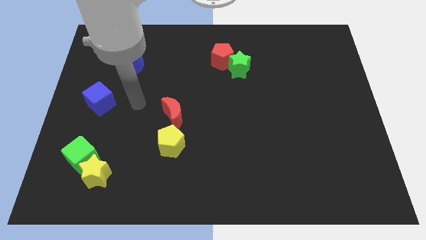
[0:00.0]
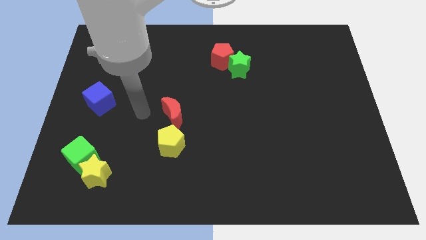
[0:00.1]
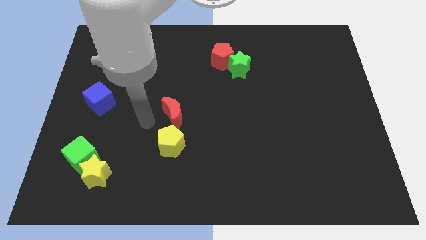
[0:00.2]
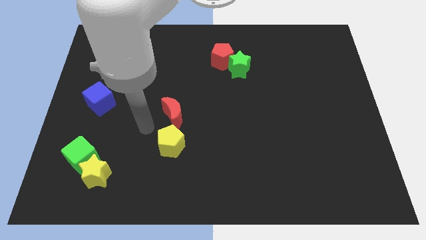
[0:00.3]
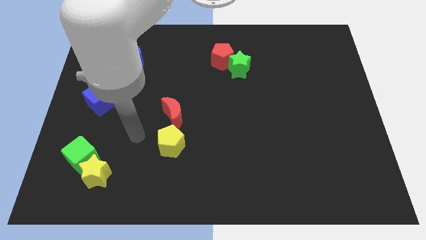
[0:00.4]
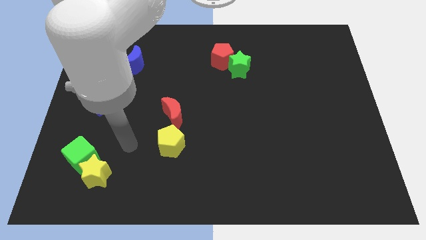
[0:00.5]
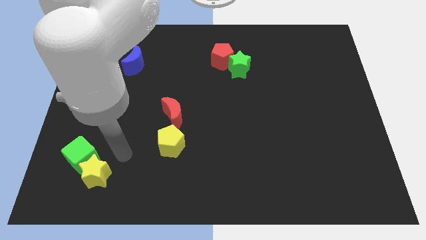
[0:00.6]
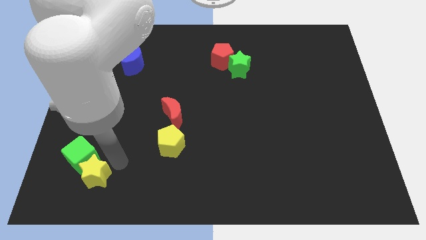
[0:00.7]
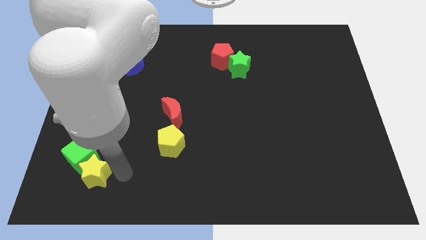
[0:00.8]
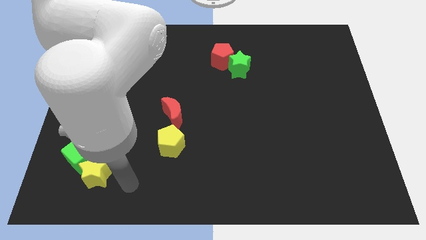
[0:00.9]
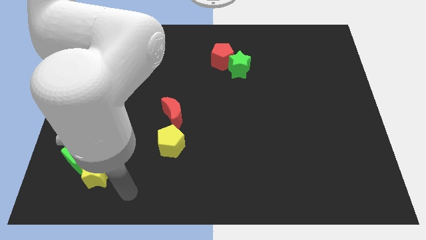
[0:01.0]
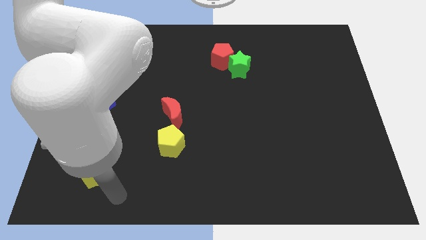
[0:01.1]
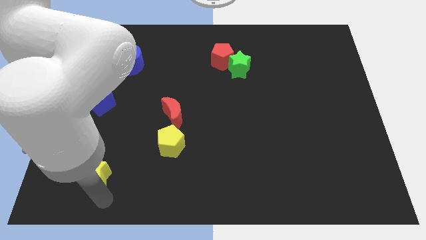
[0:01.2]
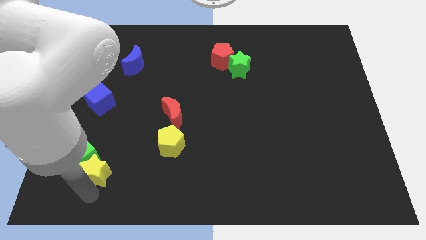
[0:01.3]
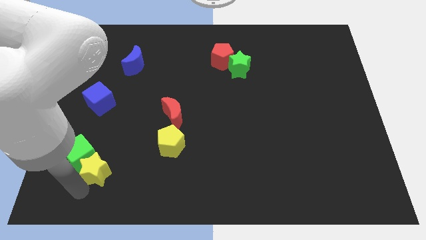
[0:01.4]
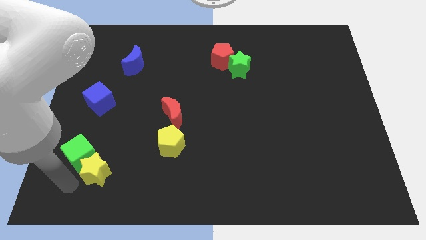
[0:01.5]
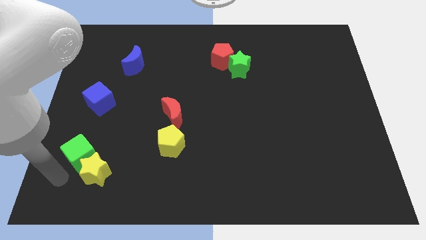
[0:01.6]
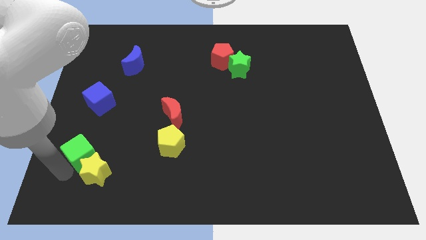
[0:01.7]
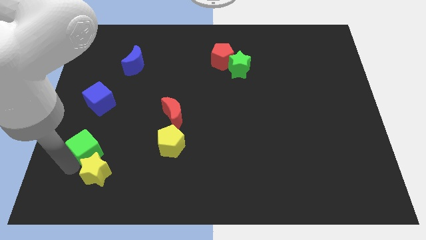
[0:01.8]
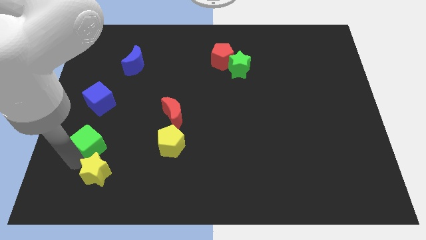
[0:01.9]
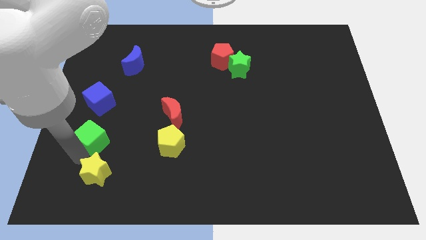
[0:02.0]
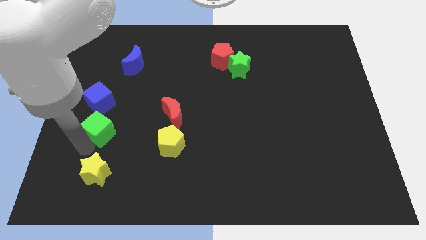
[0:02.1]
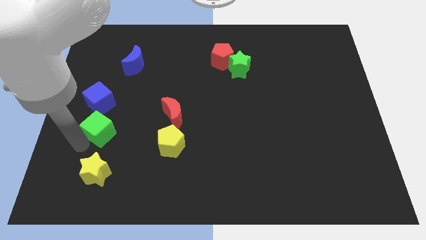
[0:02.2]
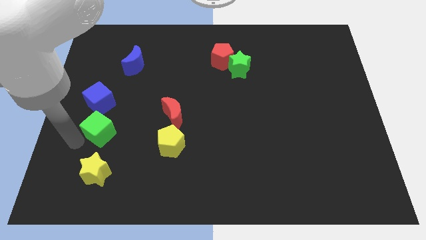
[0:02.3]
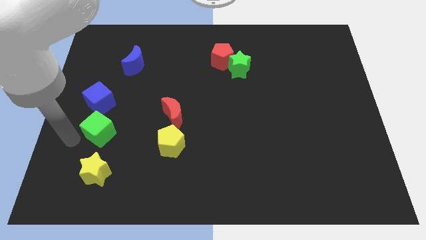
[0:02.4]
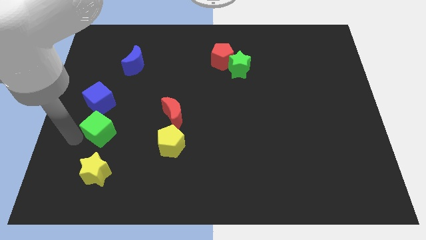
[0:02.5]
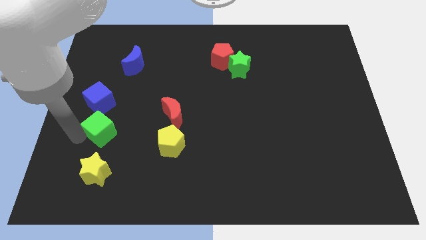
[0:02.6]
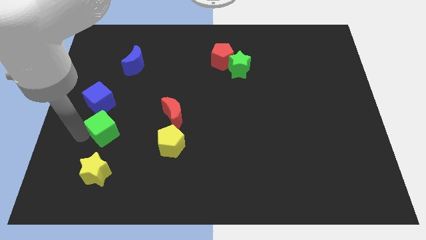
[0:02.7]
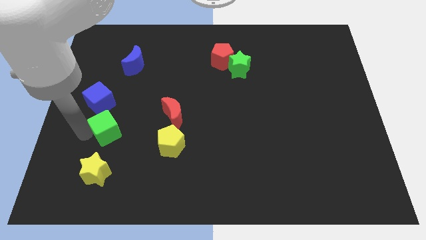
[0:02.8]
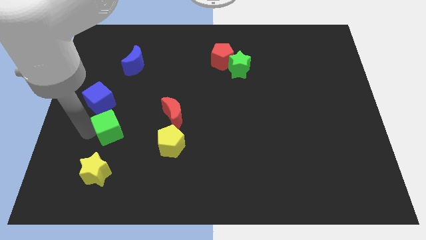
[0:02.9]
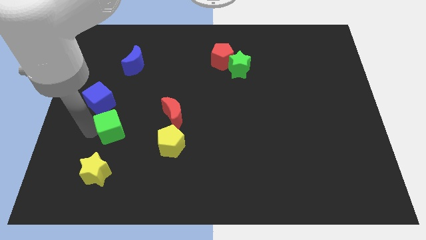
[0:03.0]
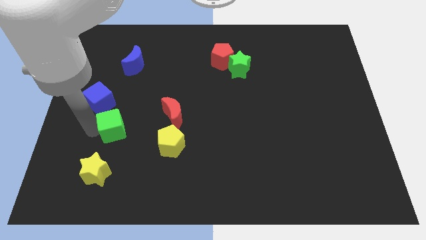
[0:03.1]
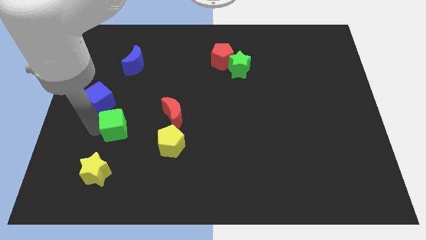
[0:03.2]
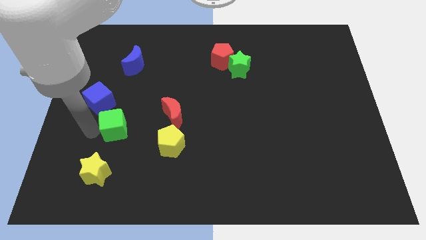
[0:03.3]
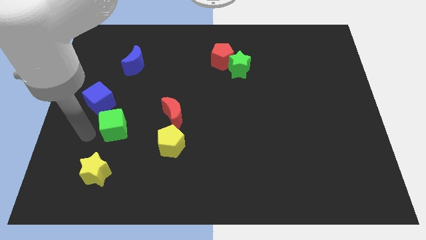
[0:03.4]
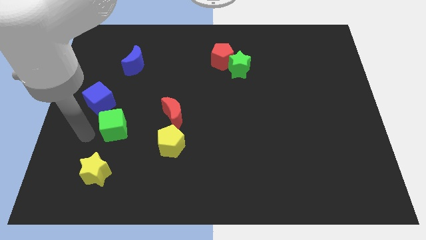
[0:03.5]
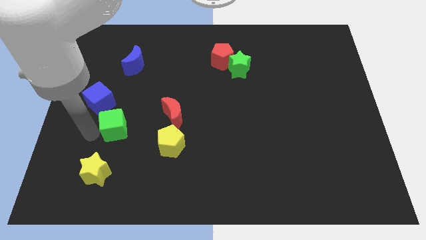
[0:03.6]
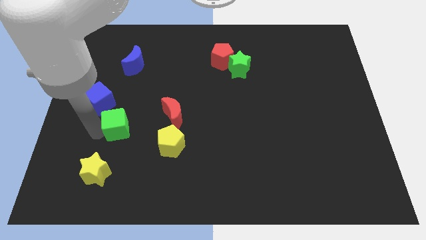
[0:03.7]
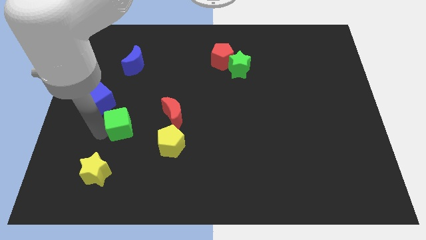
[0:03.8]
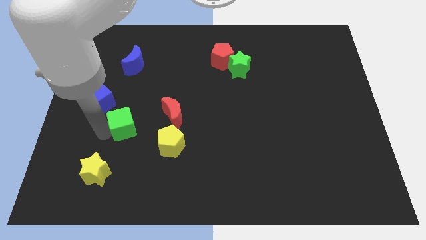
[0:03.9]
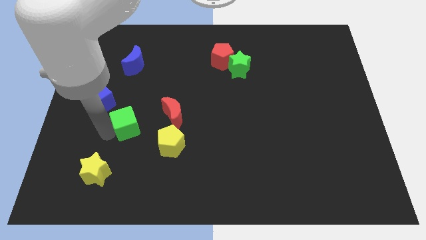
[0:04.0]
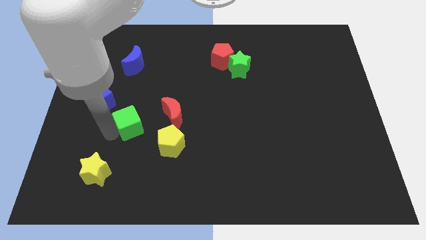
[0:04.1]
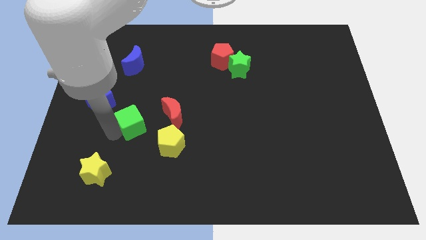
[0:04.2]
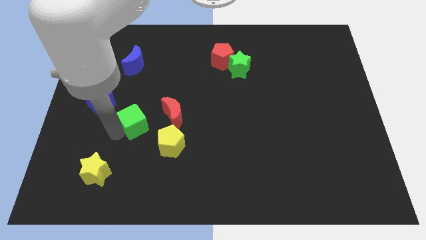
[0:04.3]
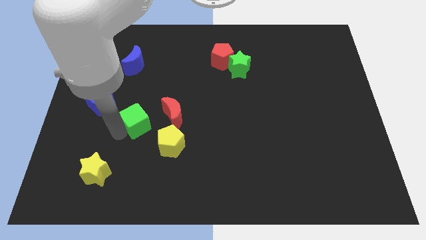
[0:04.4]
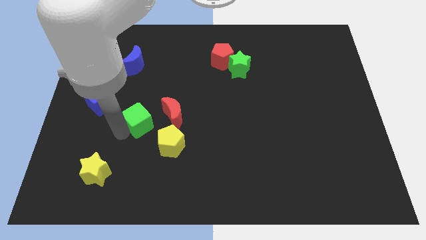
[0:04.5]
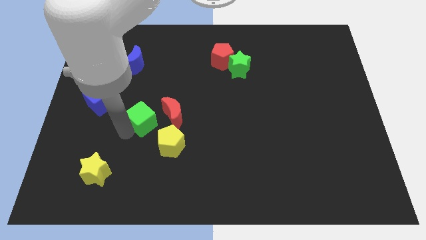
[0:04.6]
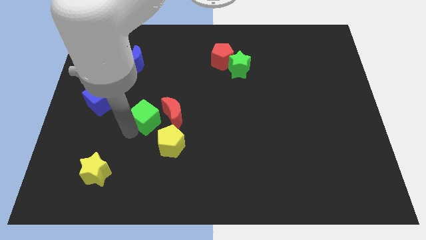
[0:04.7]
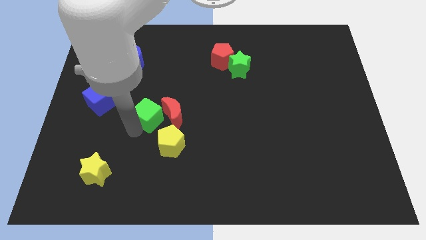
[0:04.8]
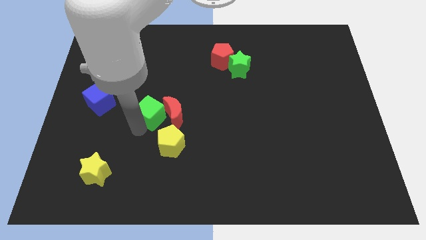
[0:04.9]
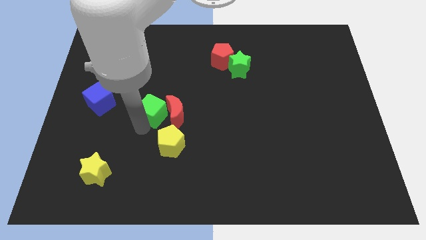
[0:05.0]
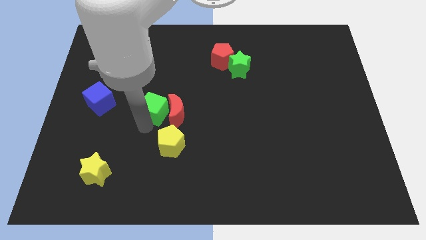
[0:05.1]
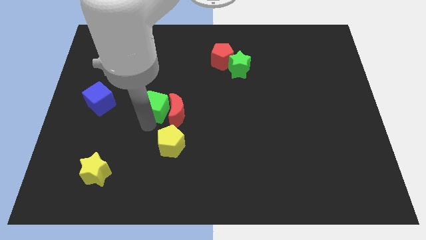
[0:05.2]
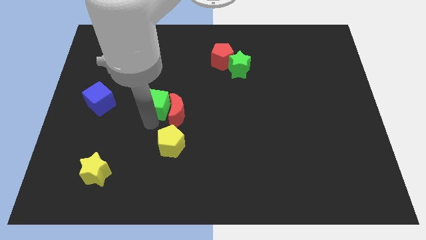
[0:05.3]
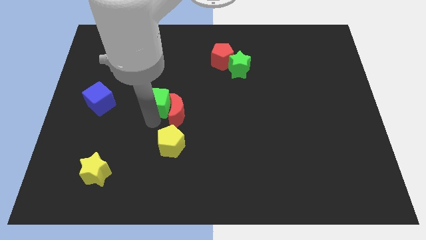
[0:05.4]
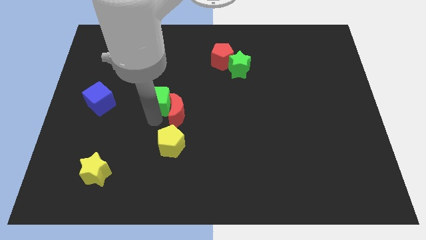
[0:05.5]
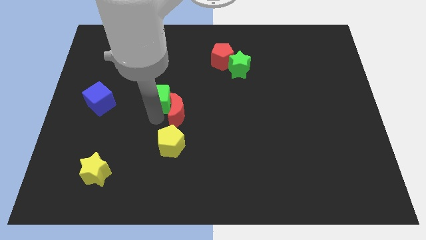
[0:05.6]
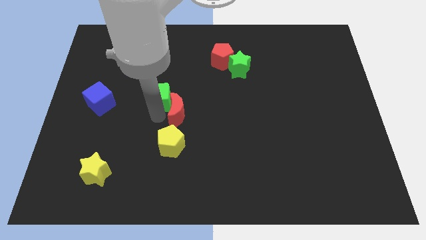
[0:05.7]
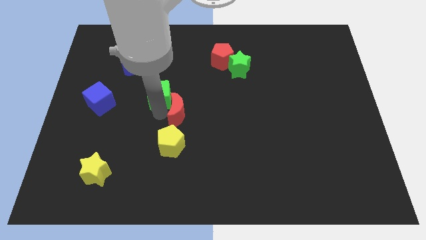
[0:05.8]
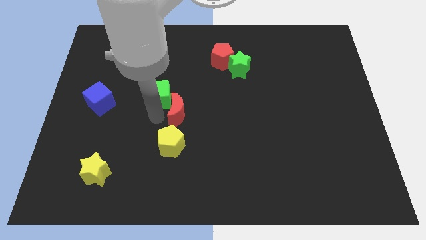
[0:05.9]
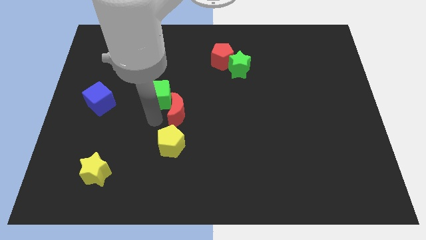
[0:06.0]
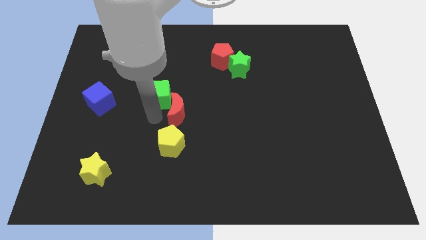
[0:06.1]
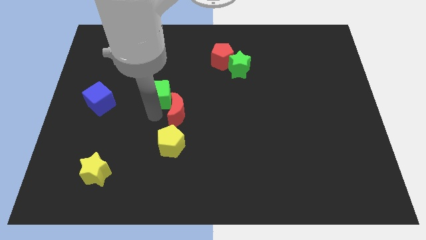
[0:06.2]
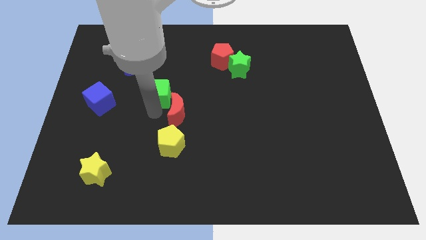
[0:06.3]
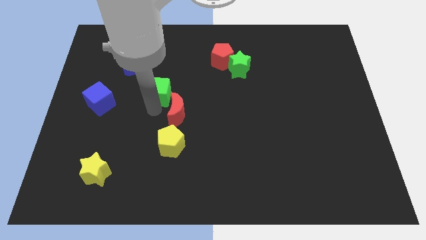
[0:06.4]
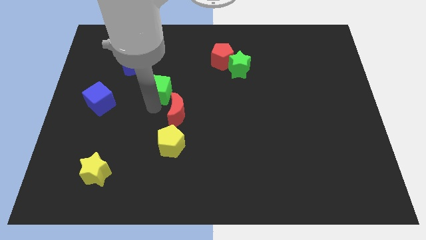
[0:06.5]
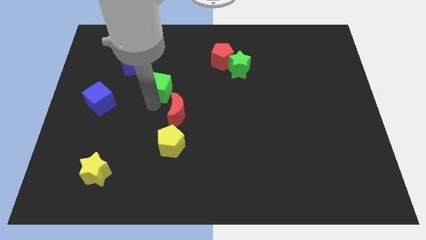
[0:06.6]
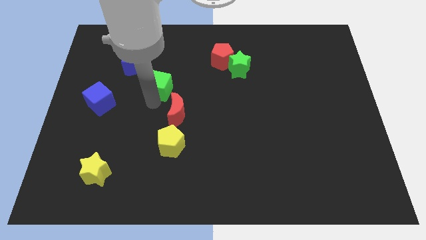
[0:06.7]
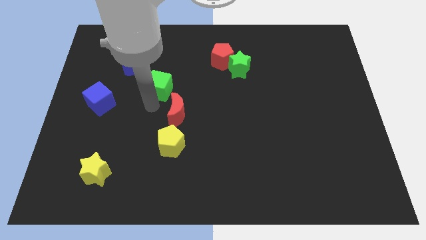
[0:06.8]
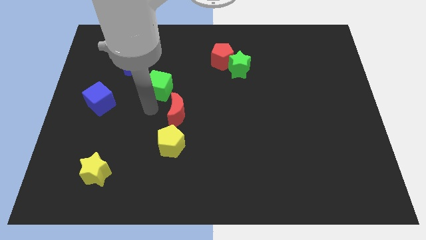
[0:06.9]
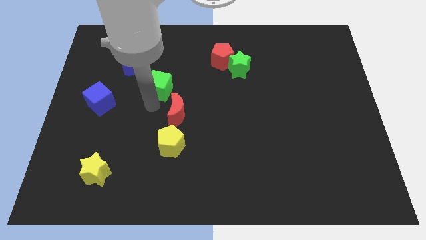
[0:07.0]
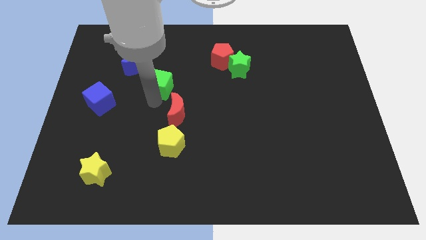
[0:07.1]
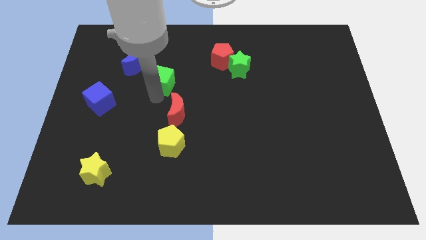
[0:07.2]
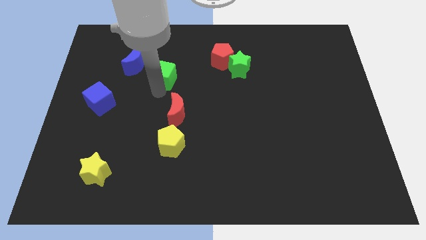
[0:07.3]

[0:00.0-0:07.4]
move the green cube just right of the blue moon

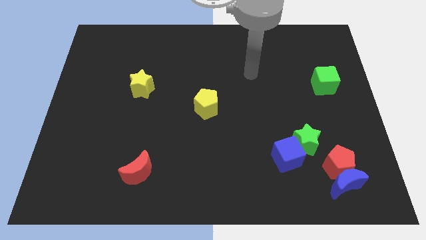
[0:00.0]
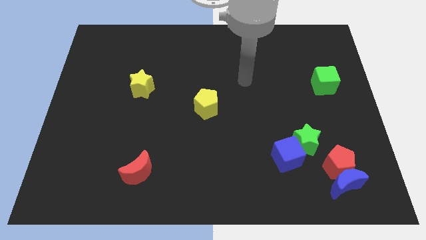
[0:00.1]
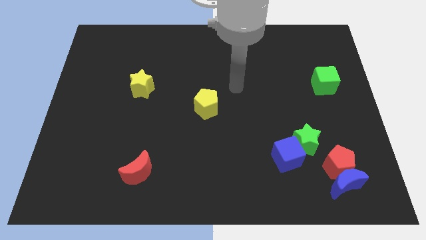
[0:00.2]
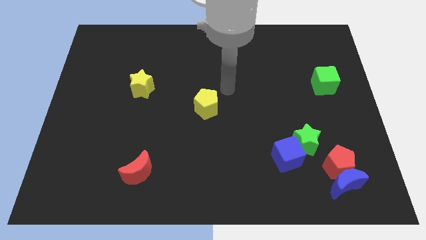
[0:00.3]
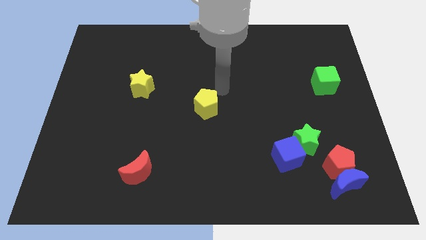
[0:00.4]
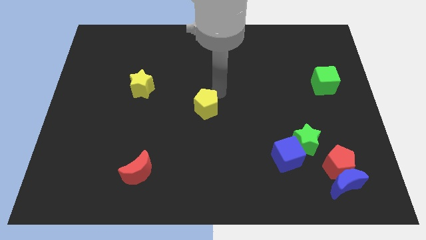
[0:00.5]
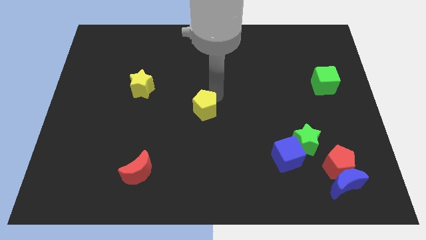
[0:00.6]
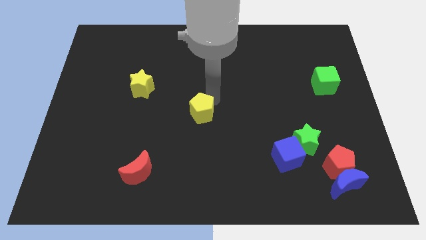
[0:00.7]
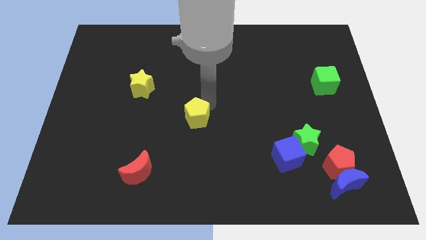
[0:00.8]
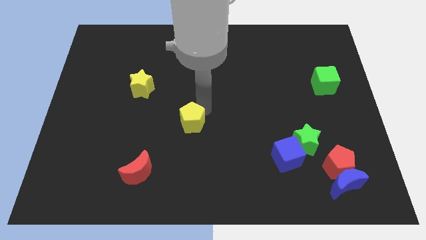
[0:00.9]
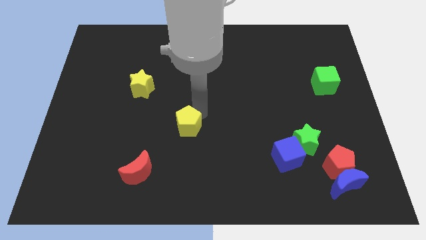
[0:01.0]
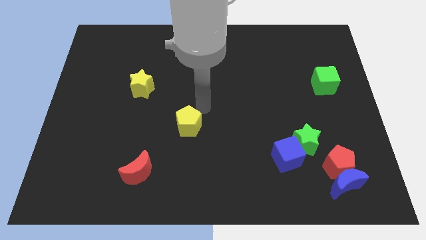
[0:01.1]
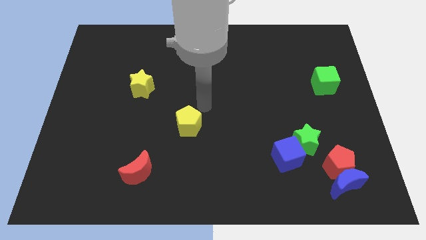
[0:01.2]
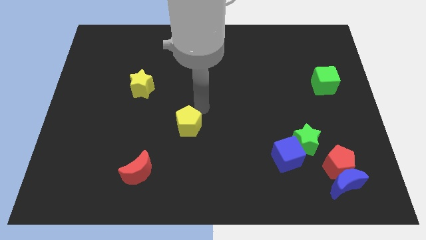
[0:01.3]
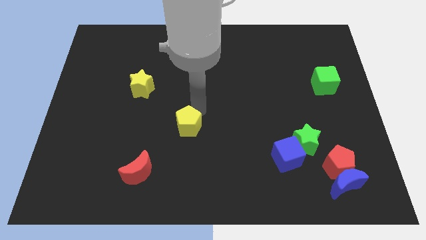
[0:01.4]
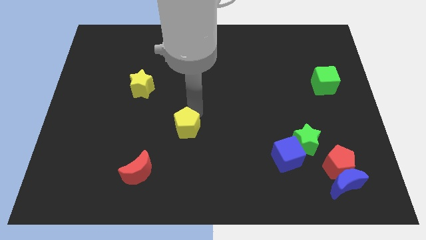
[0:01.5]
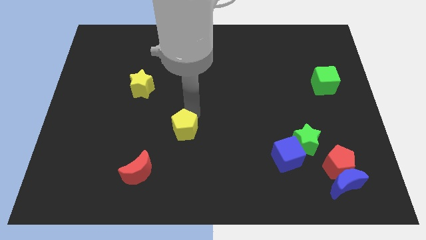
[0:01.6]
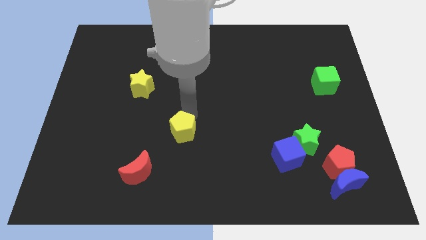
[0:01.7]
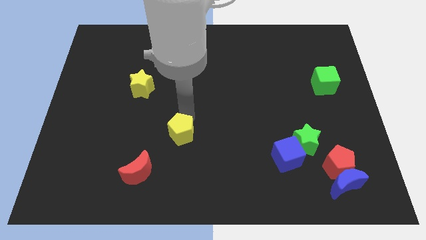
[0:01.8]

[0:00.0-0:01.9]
put the yellow pentagon to the top right side of the red moon
